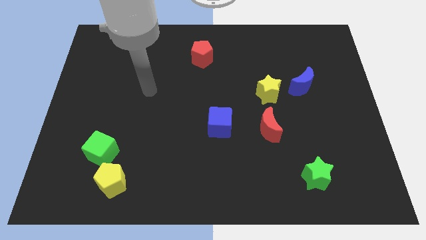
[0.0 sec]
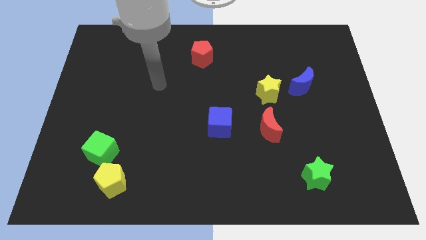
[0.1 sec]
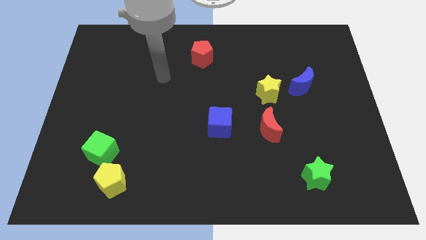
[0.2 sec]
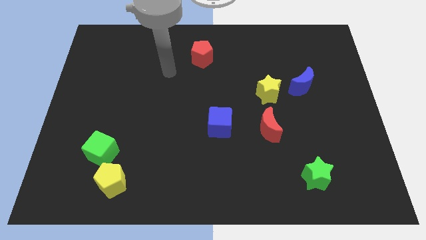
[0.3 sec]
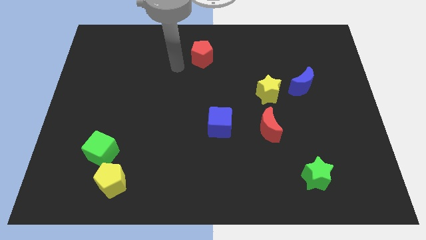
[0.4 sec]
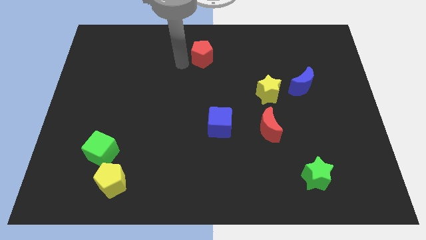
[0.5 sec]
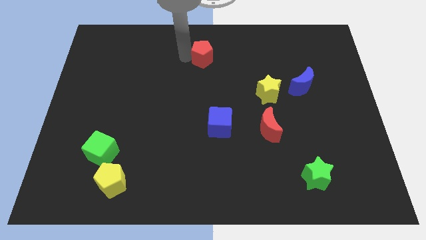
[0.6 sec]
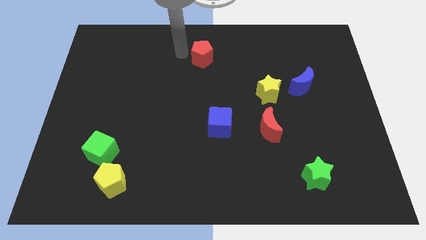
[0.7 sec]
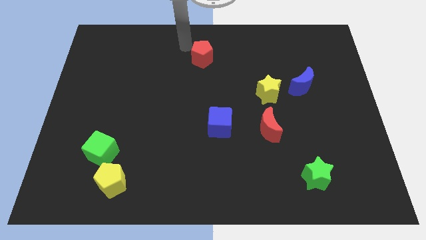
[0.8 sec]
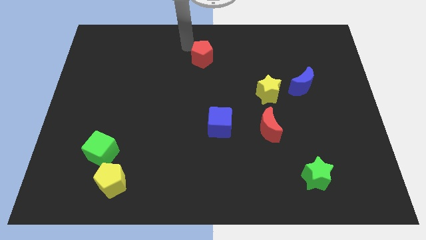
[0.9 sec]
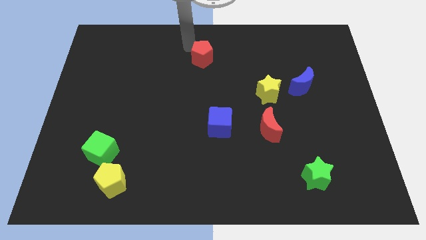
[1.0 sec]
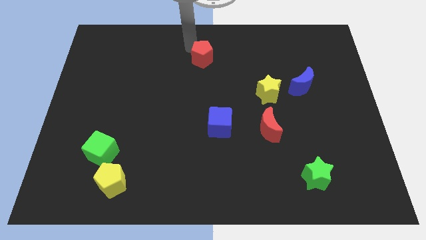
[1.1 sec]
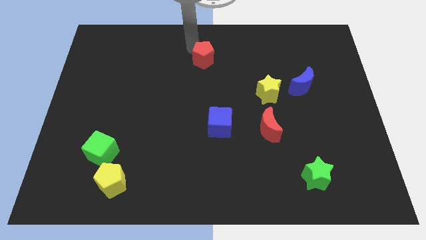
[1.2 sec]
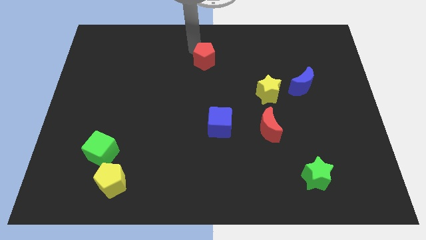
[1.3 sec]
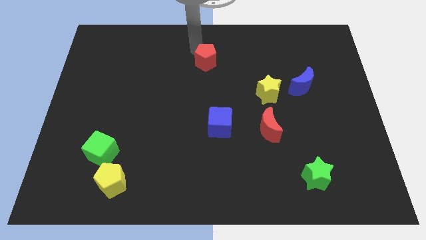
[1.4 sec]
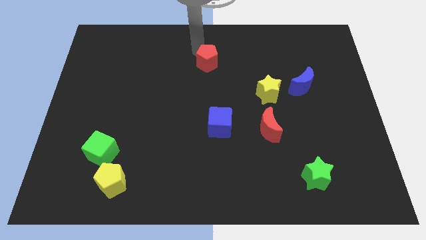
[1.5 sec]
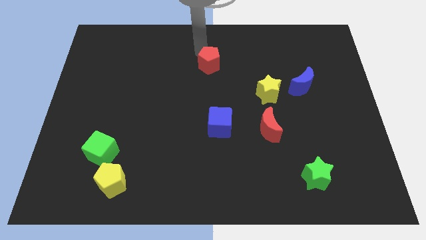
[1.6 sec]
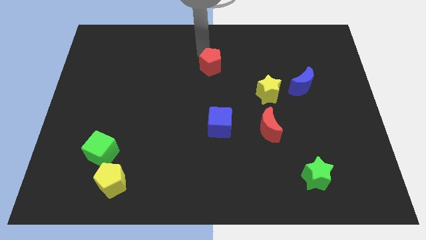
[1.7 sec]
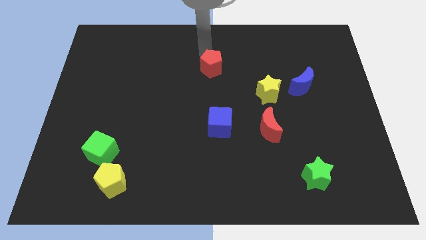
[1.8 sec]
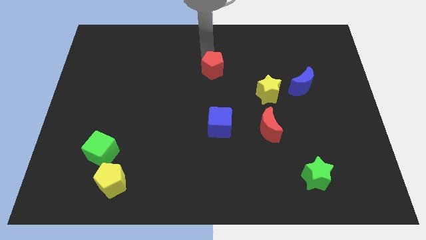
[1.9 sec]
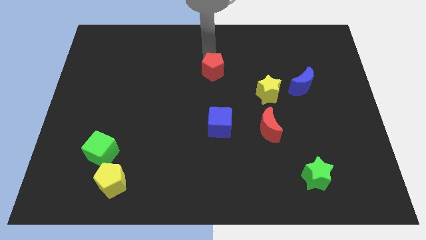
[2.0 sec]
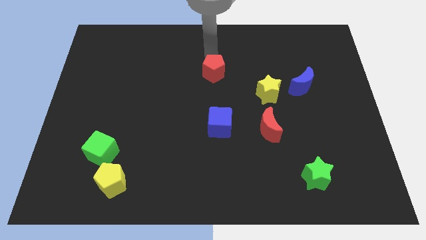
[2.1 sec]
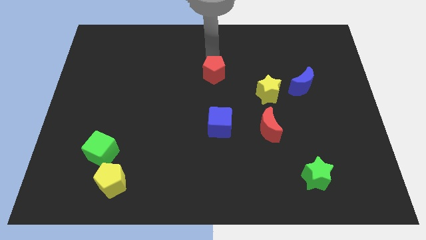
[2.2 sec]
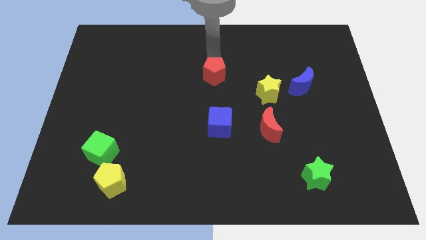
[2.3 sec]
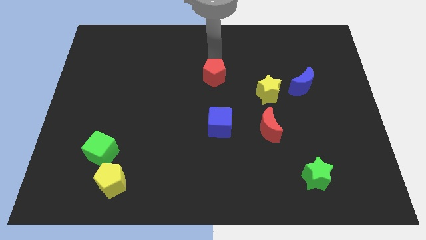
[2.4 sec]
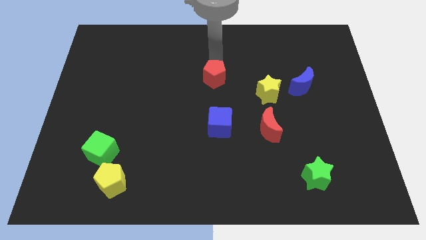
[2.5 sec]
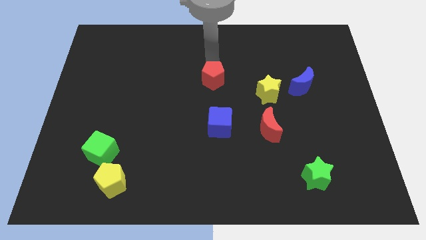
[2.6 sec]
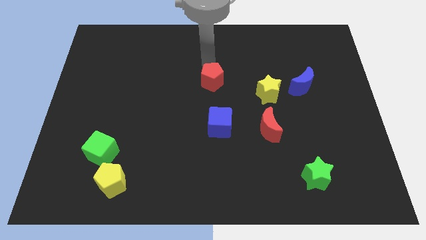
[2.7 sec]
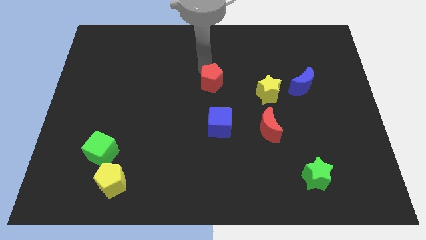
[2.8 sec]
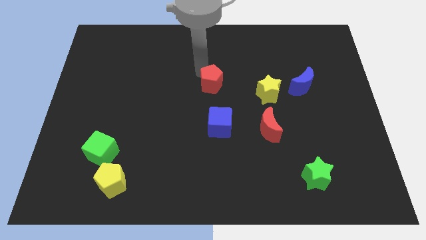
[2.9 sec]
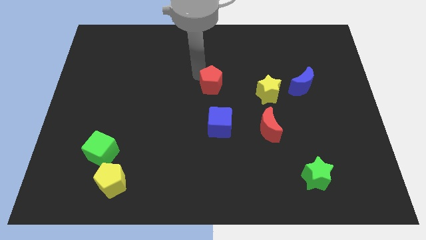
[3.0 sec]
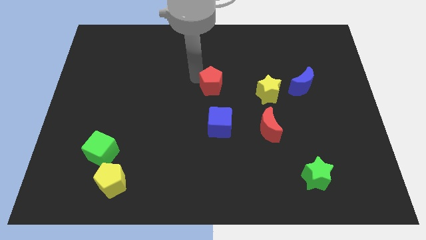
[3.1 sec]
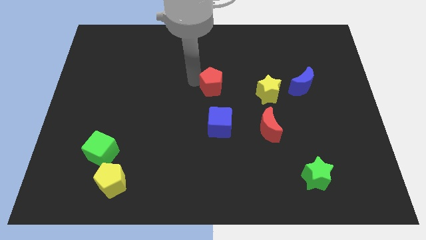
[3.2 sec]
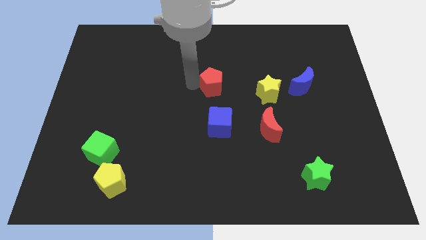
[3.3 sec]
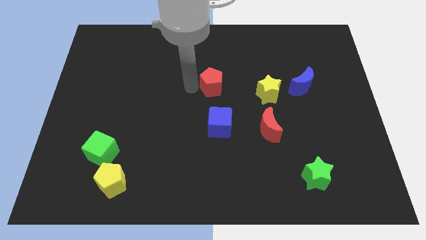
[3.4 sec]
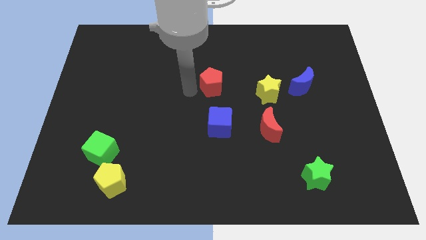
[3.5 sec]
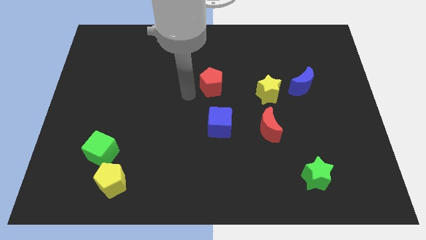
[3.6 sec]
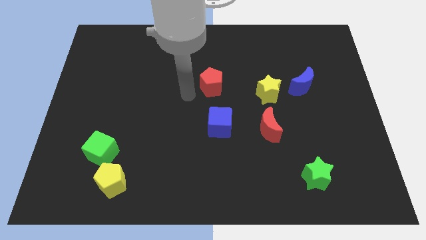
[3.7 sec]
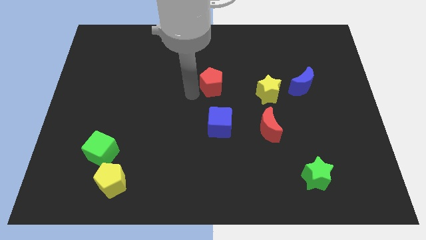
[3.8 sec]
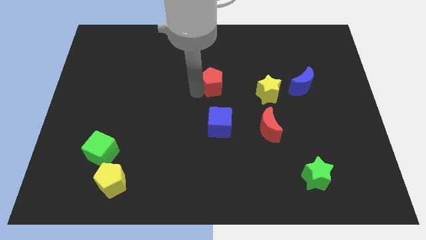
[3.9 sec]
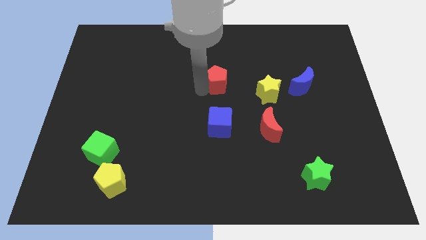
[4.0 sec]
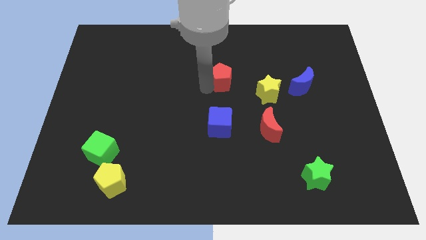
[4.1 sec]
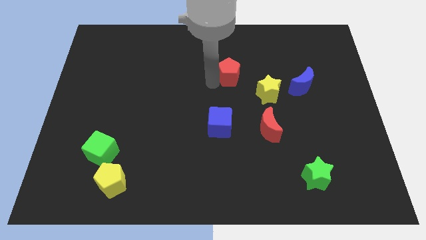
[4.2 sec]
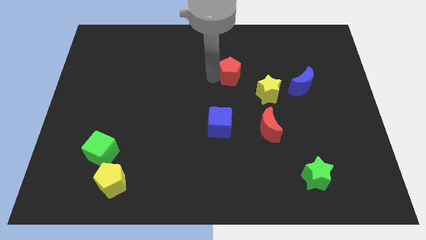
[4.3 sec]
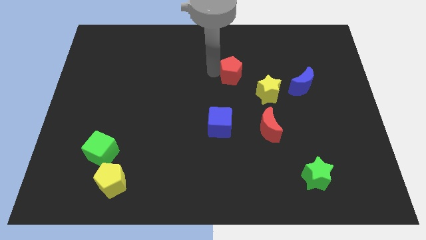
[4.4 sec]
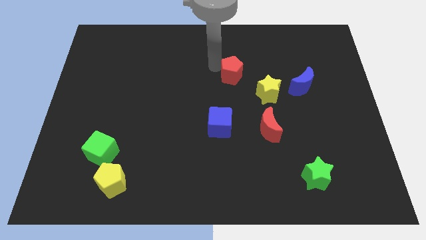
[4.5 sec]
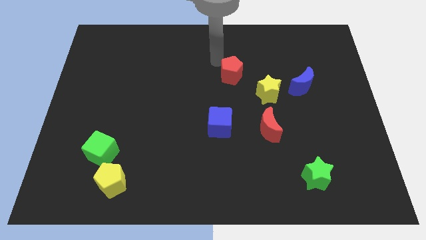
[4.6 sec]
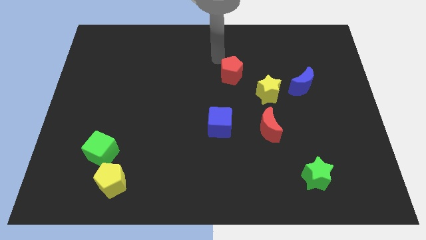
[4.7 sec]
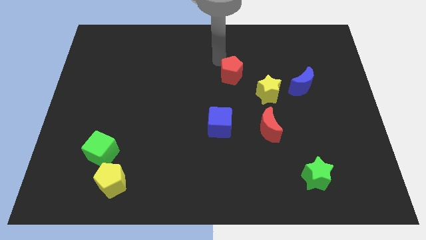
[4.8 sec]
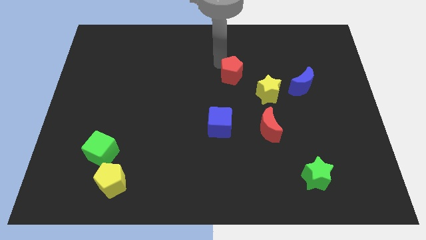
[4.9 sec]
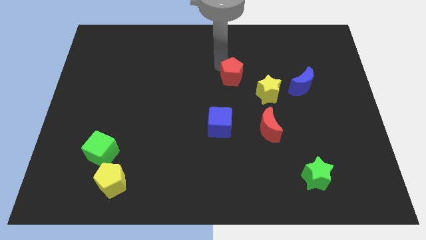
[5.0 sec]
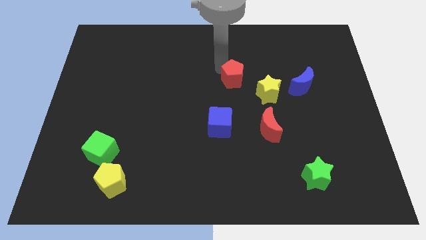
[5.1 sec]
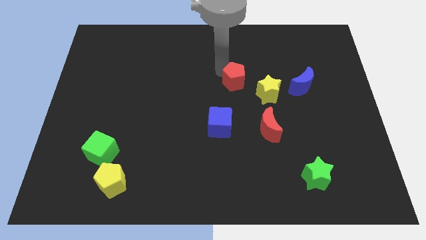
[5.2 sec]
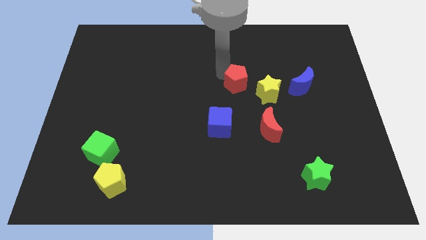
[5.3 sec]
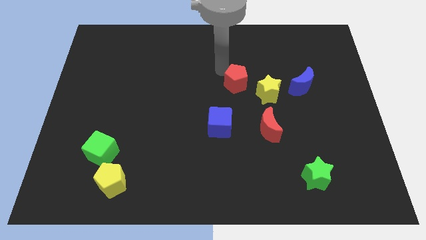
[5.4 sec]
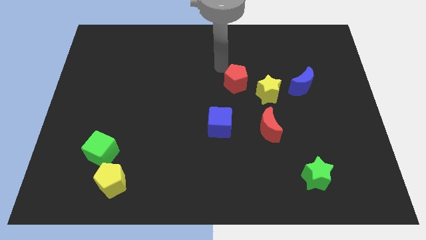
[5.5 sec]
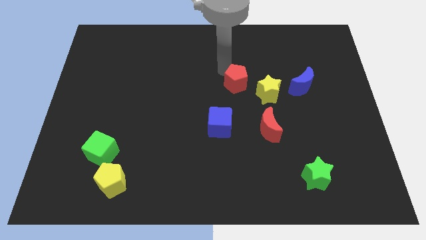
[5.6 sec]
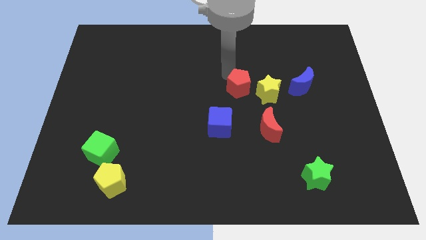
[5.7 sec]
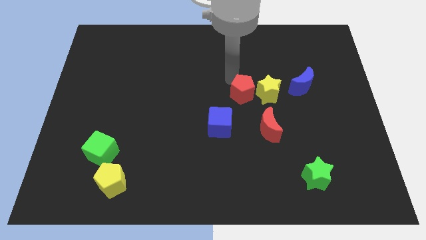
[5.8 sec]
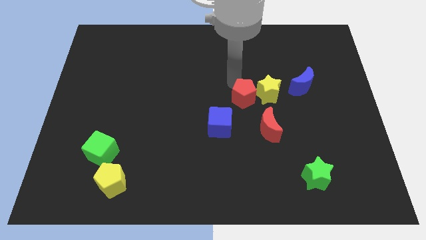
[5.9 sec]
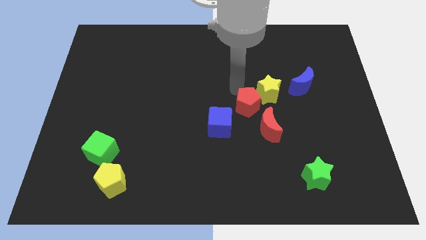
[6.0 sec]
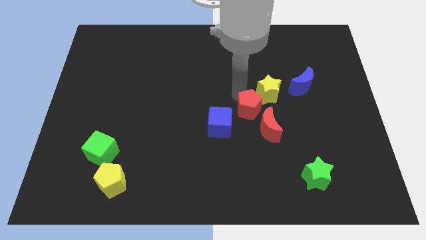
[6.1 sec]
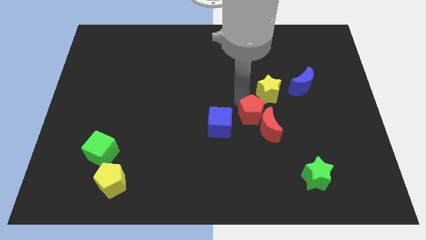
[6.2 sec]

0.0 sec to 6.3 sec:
push the red pentagon diagonally down and right

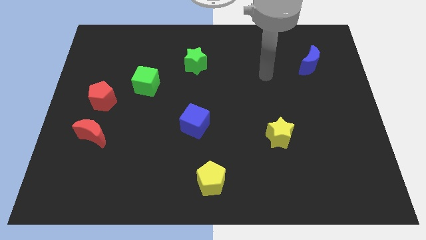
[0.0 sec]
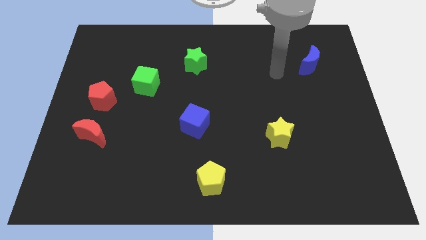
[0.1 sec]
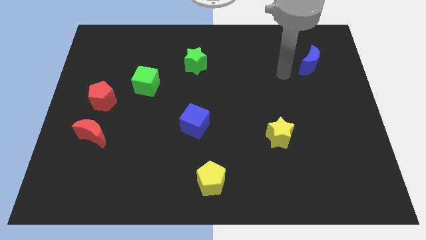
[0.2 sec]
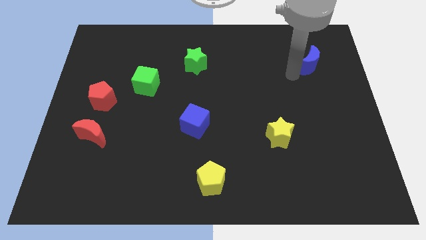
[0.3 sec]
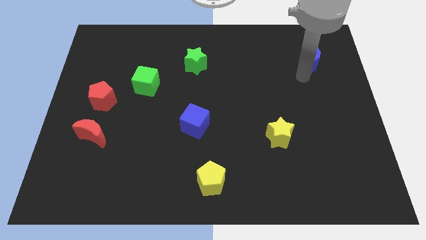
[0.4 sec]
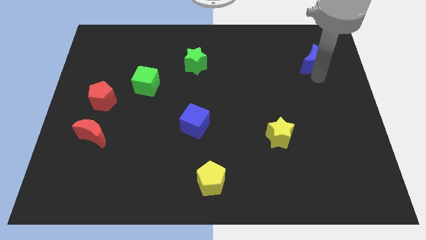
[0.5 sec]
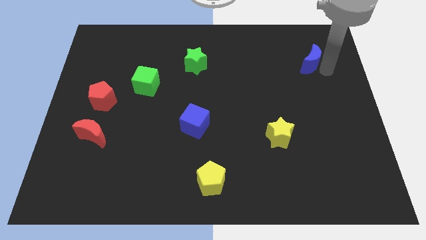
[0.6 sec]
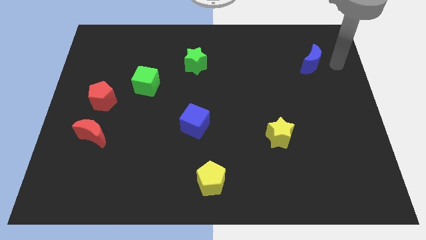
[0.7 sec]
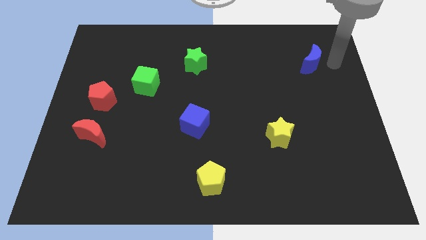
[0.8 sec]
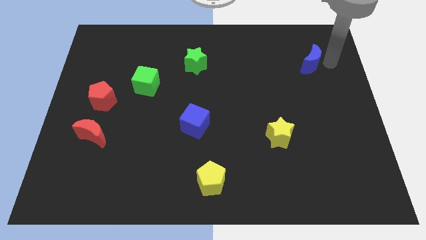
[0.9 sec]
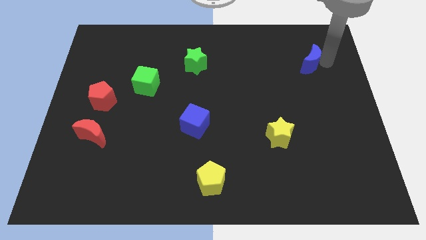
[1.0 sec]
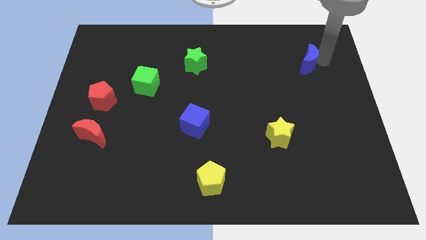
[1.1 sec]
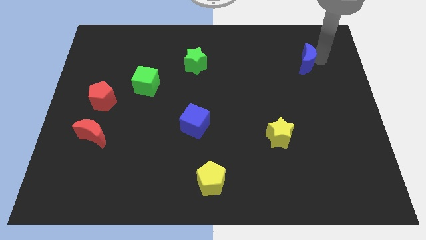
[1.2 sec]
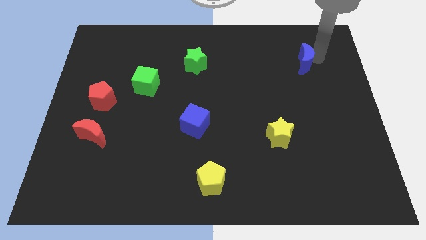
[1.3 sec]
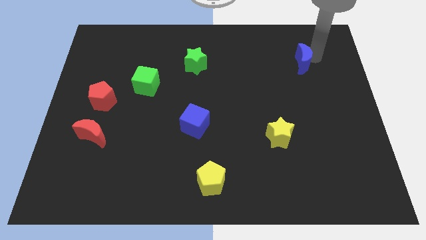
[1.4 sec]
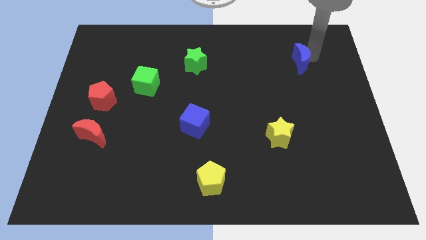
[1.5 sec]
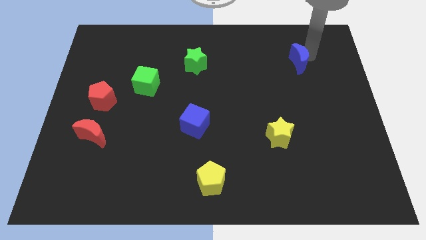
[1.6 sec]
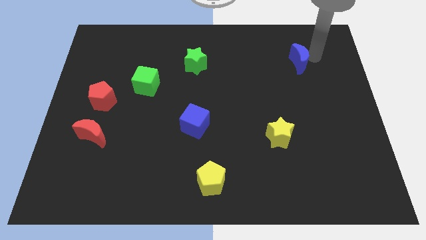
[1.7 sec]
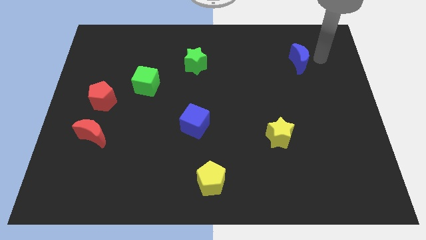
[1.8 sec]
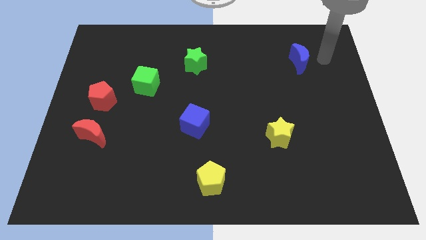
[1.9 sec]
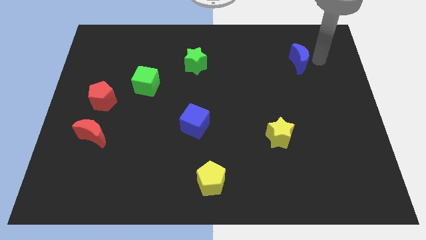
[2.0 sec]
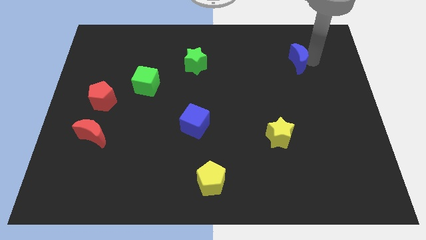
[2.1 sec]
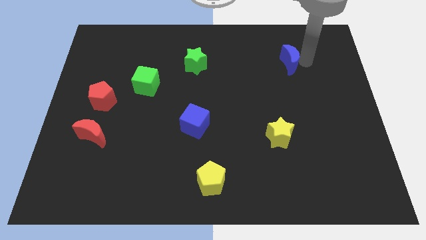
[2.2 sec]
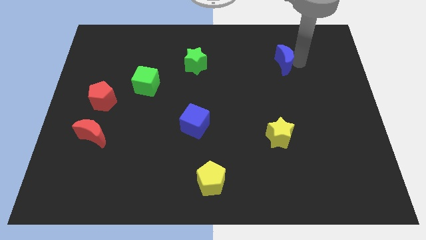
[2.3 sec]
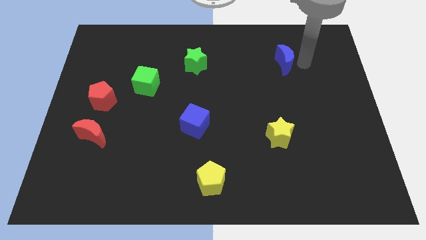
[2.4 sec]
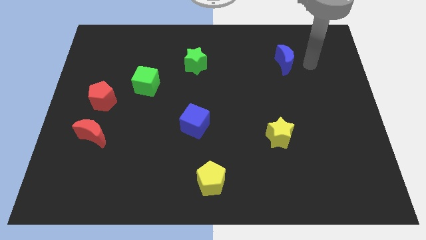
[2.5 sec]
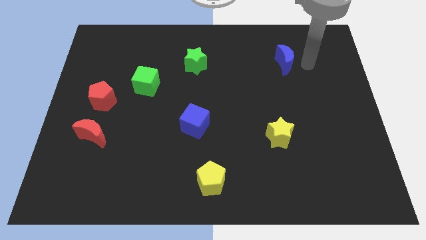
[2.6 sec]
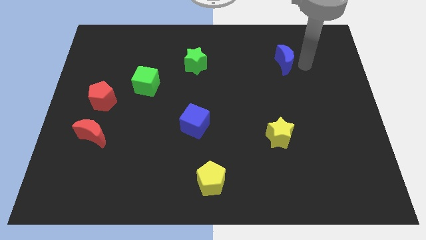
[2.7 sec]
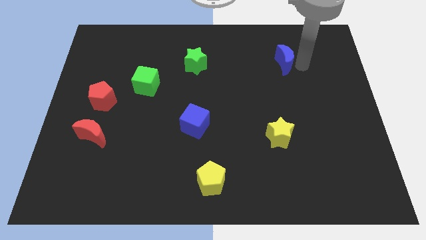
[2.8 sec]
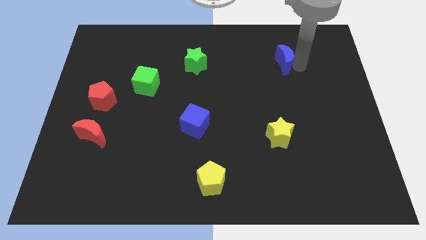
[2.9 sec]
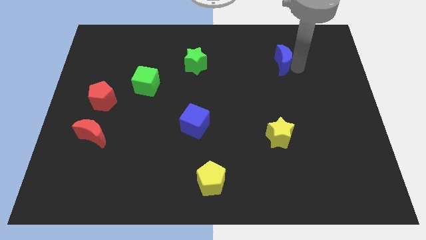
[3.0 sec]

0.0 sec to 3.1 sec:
slightly move the blue moon left
